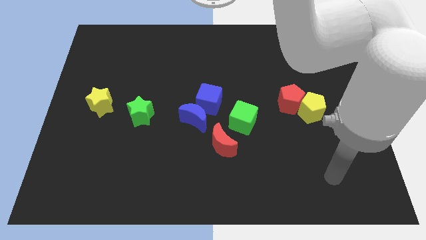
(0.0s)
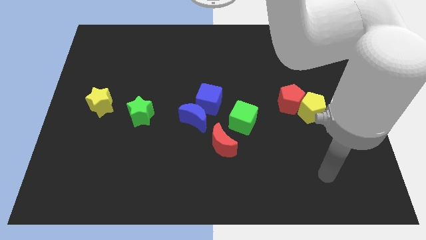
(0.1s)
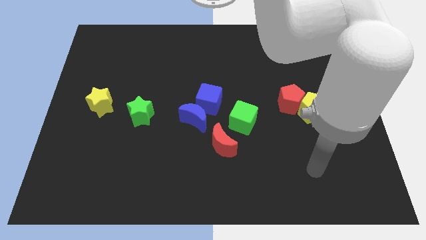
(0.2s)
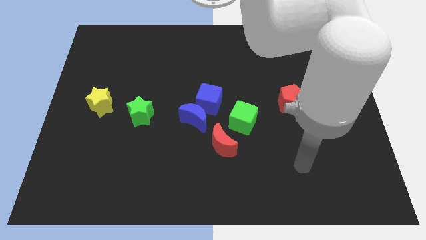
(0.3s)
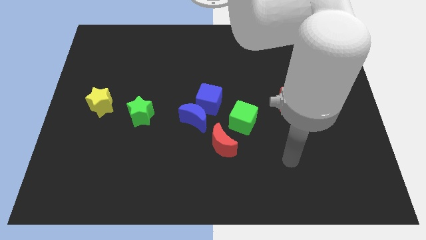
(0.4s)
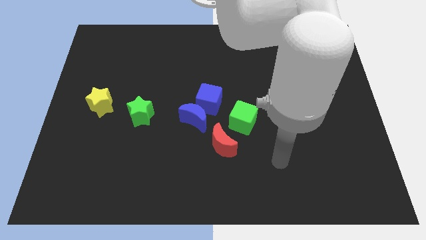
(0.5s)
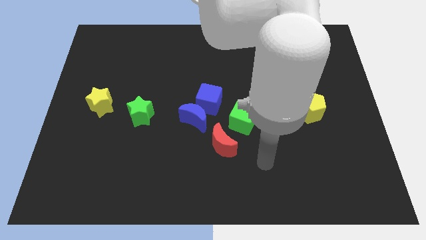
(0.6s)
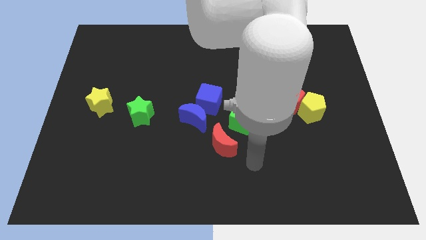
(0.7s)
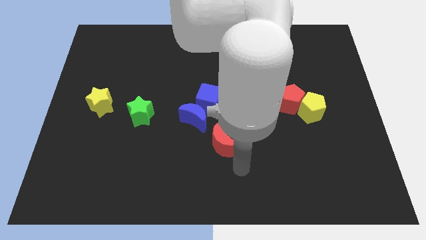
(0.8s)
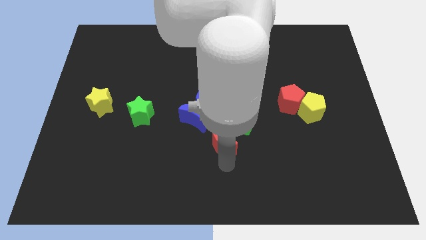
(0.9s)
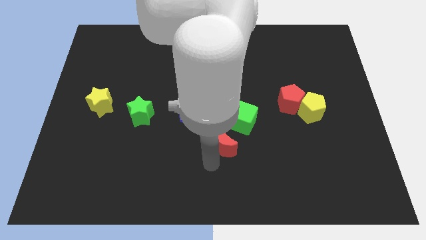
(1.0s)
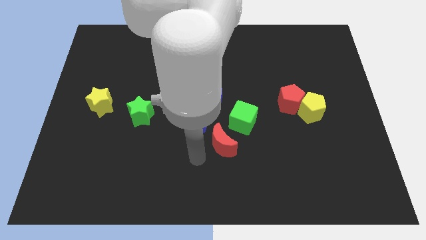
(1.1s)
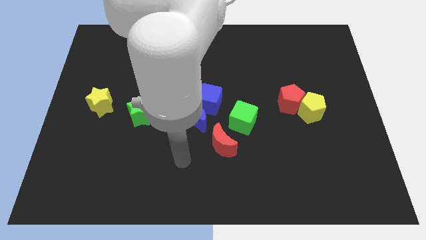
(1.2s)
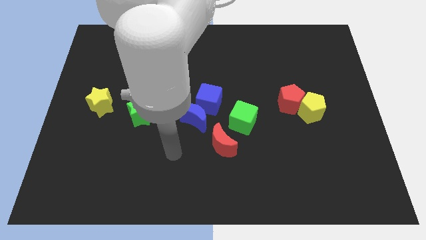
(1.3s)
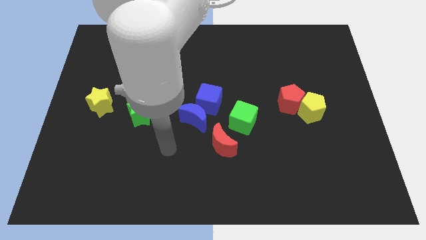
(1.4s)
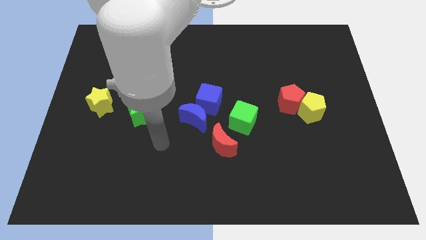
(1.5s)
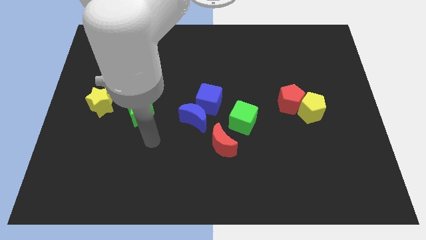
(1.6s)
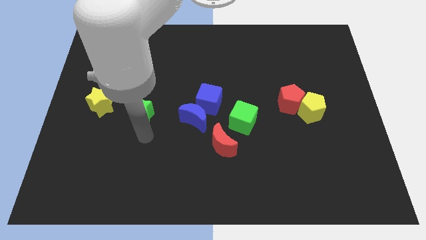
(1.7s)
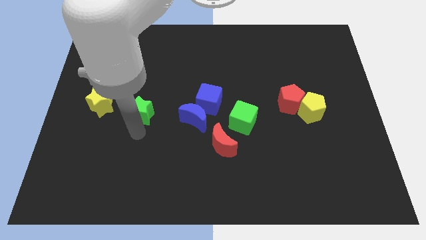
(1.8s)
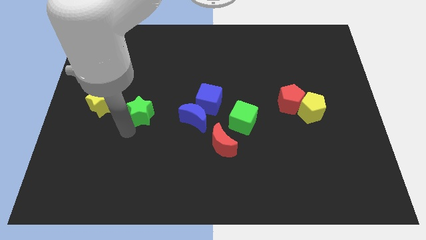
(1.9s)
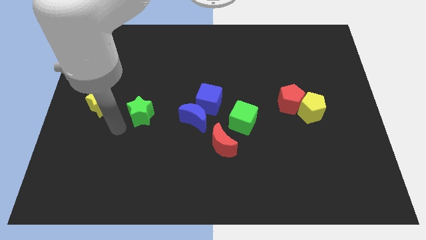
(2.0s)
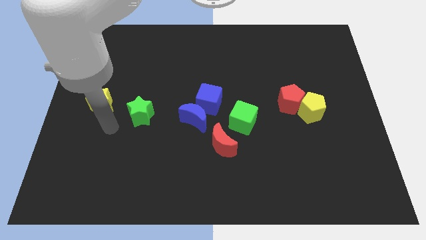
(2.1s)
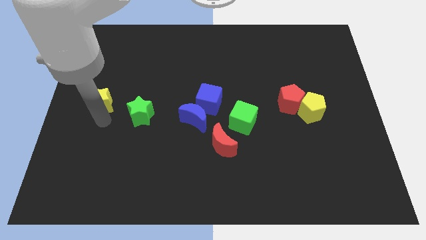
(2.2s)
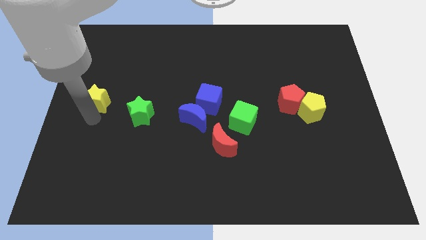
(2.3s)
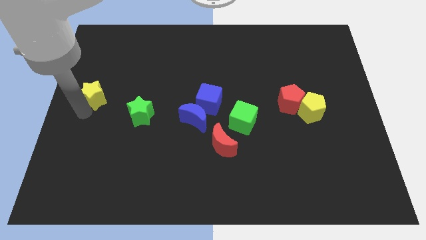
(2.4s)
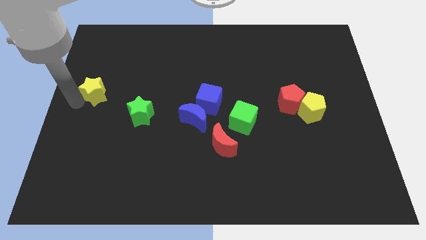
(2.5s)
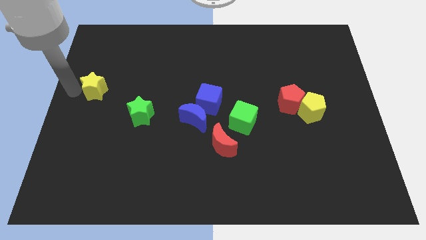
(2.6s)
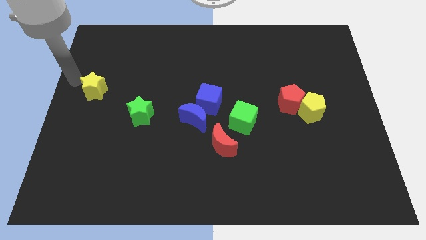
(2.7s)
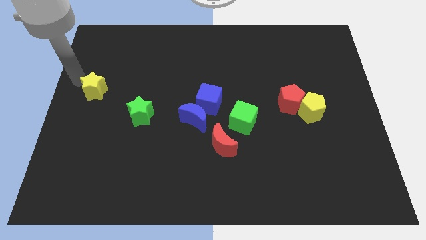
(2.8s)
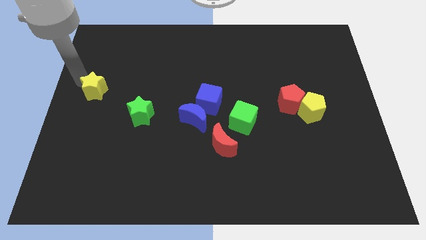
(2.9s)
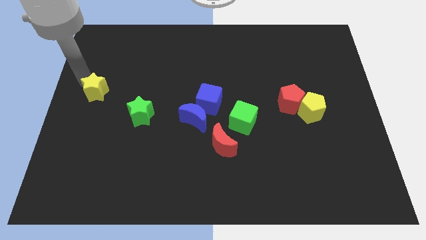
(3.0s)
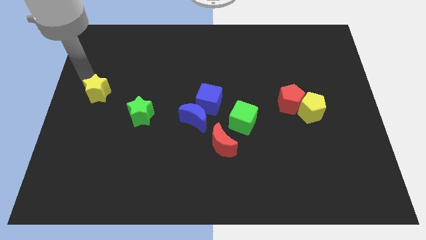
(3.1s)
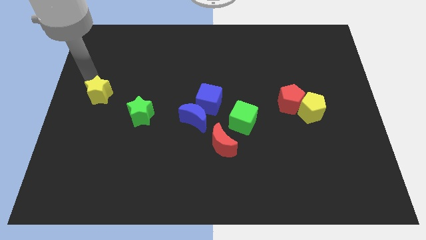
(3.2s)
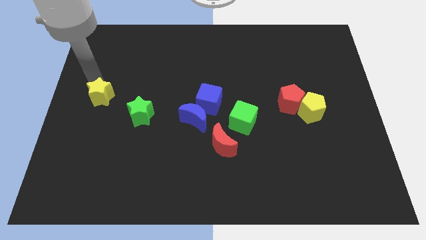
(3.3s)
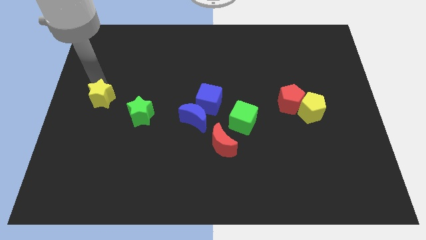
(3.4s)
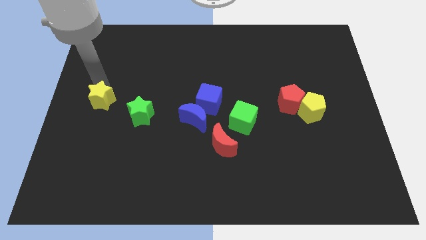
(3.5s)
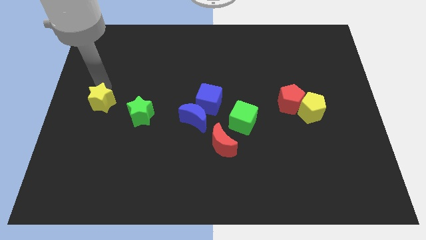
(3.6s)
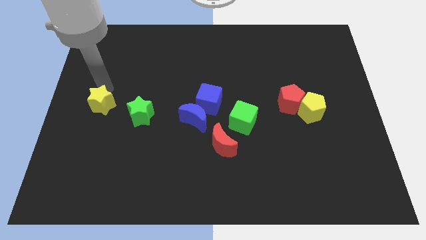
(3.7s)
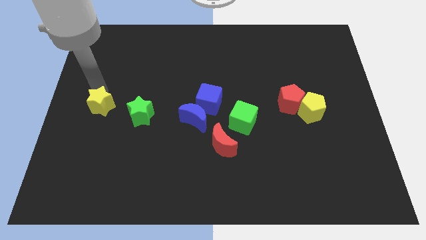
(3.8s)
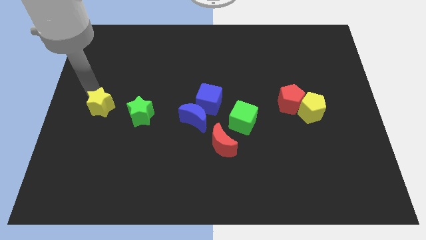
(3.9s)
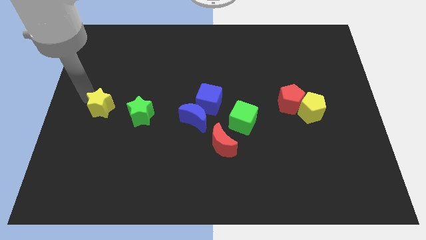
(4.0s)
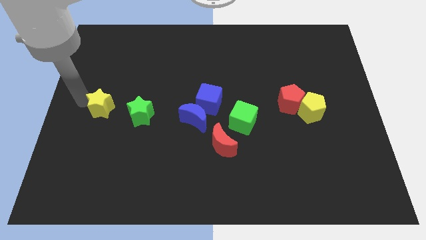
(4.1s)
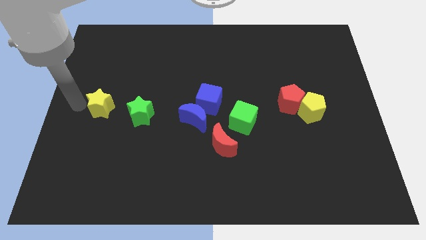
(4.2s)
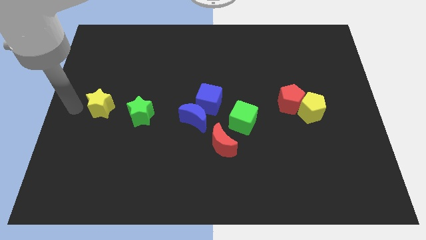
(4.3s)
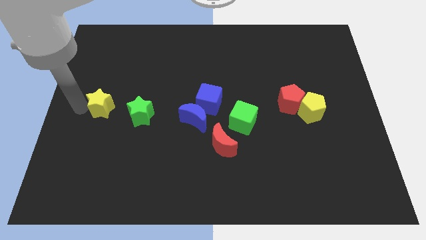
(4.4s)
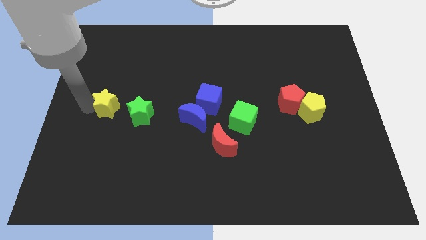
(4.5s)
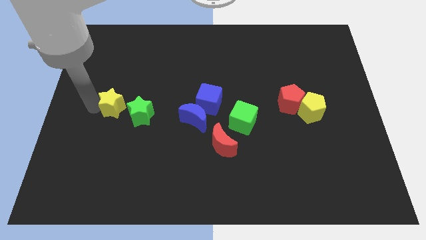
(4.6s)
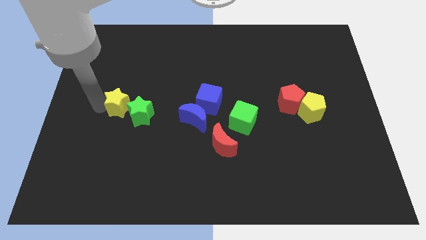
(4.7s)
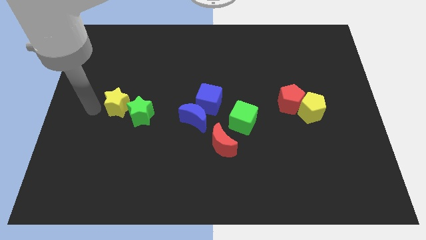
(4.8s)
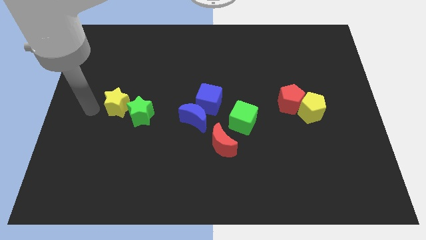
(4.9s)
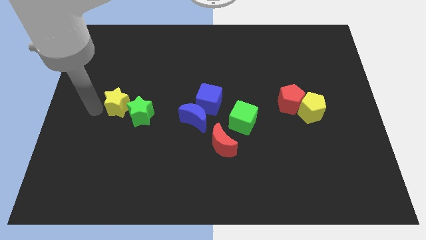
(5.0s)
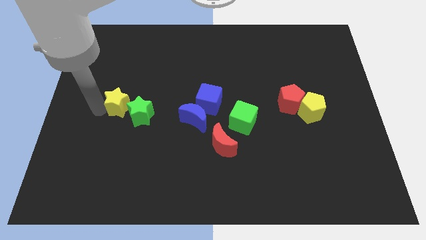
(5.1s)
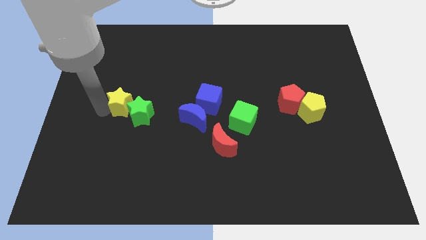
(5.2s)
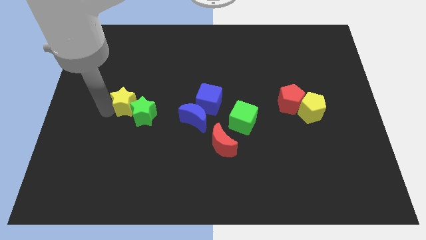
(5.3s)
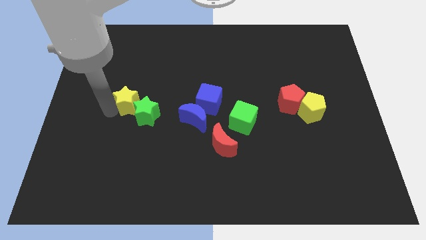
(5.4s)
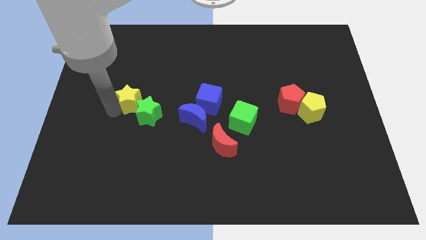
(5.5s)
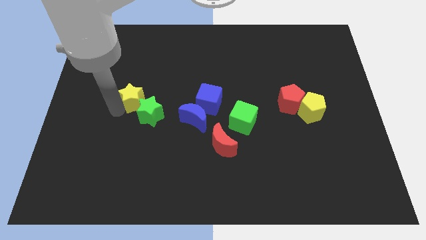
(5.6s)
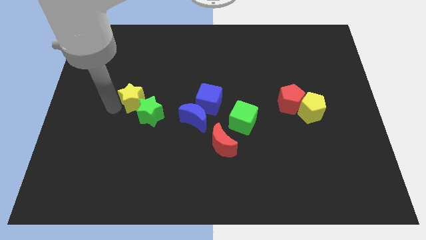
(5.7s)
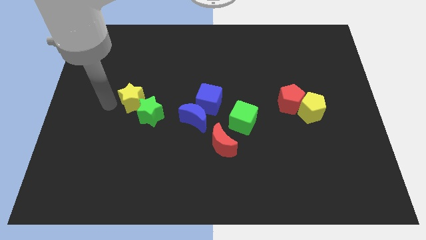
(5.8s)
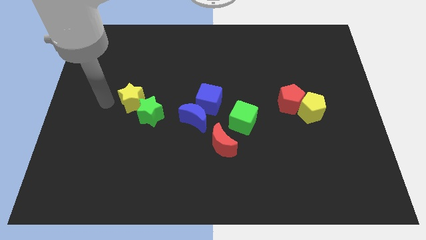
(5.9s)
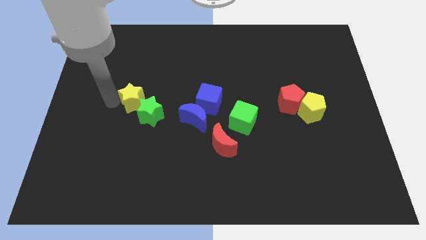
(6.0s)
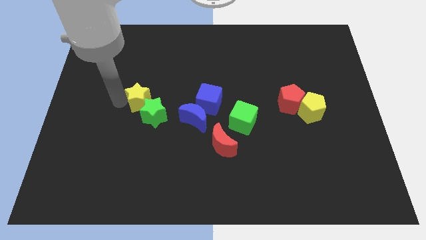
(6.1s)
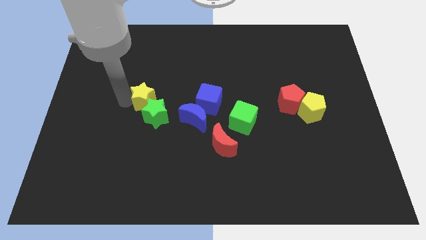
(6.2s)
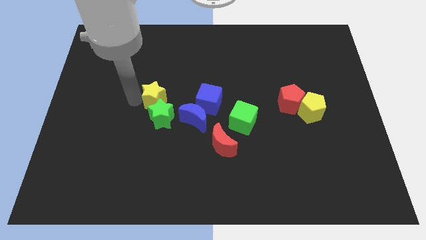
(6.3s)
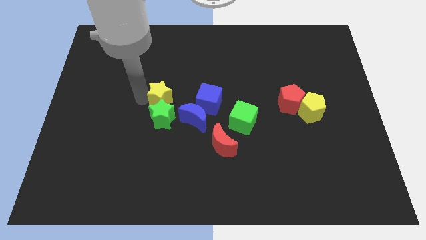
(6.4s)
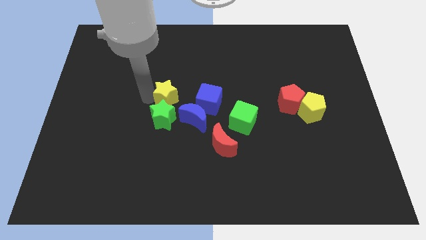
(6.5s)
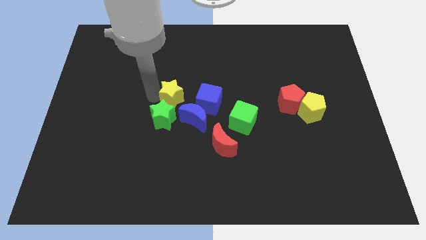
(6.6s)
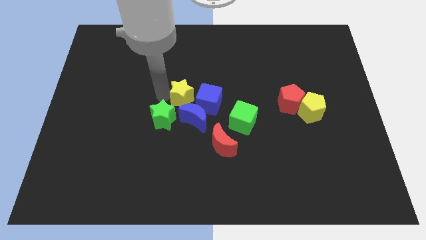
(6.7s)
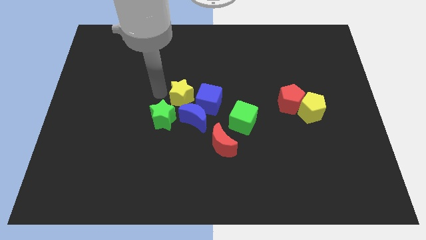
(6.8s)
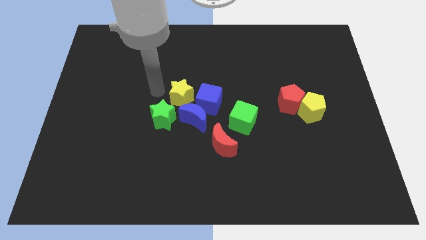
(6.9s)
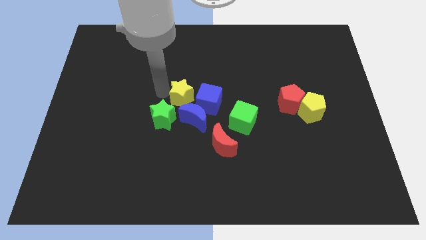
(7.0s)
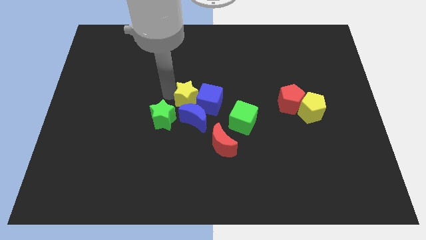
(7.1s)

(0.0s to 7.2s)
put the yellow star to the blue cube
